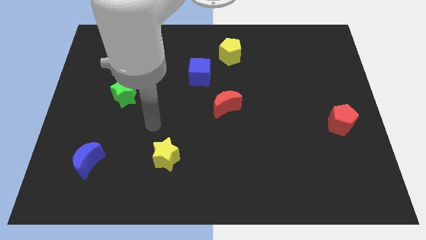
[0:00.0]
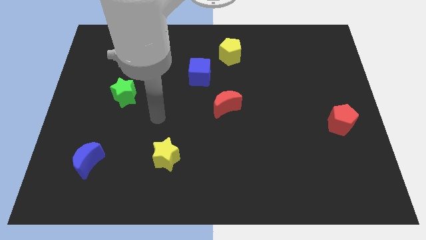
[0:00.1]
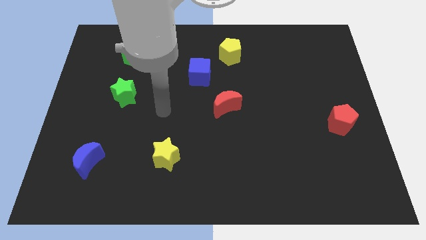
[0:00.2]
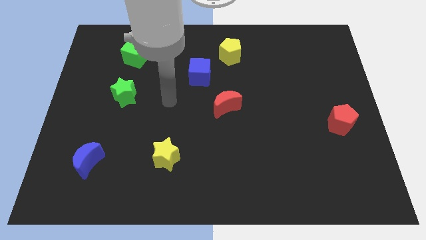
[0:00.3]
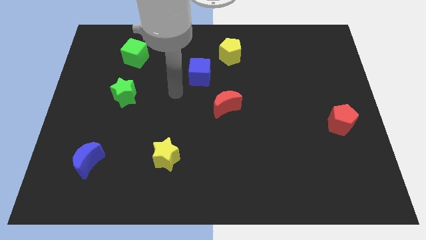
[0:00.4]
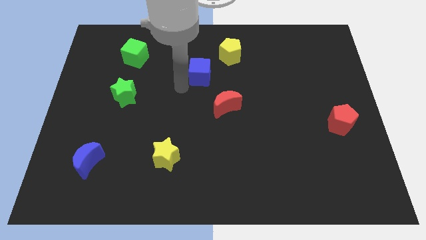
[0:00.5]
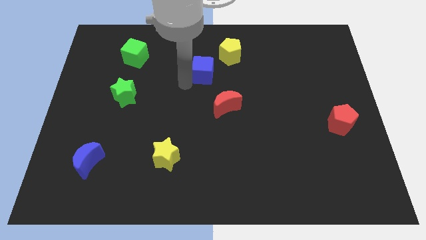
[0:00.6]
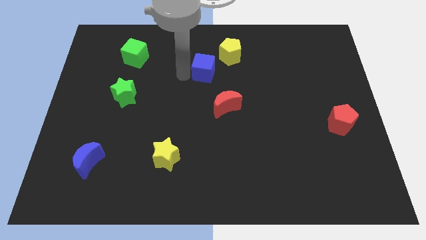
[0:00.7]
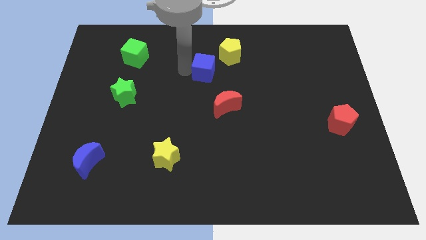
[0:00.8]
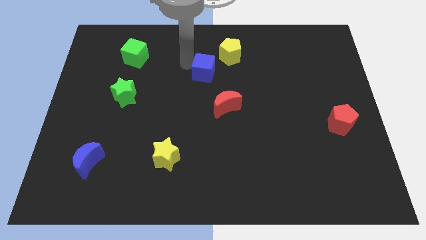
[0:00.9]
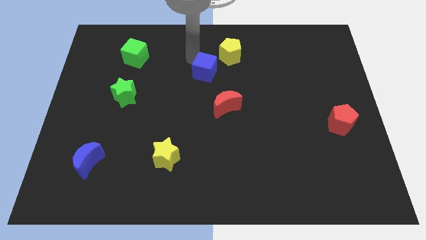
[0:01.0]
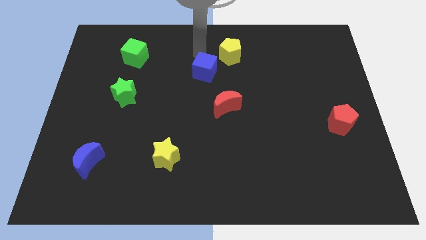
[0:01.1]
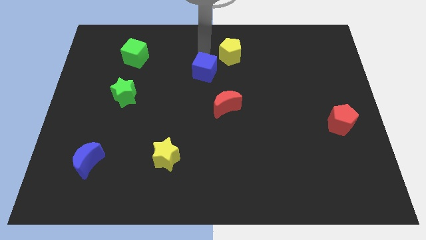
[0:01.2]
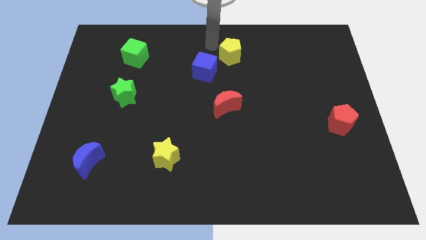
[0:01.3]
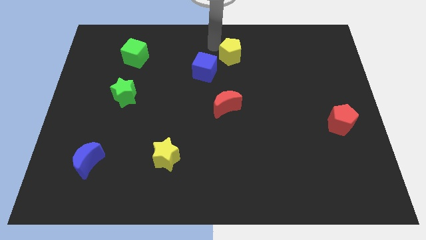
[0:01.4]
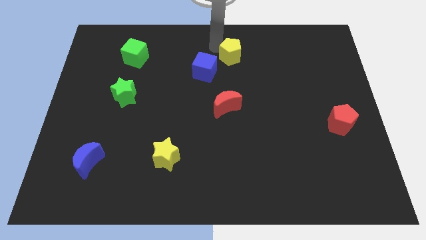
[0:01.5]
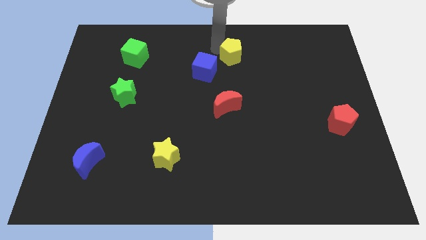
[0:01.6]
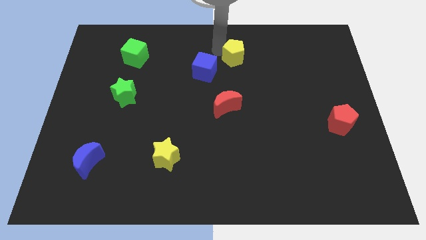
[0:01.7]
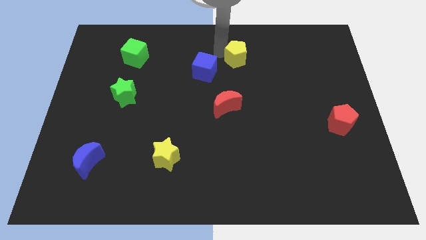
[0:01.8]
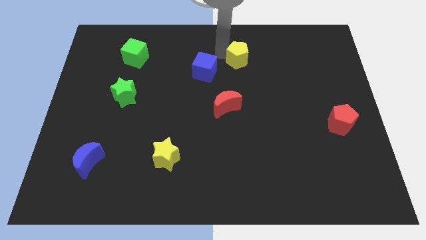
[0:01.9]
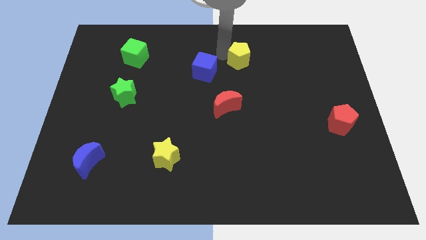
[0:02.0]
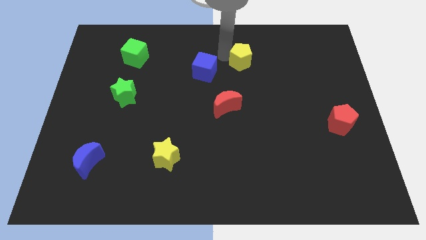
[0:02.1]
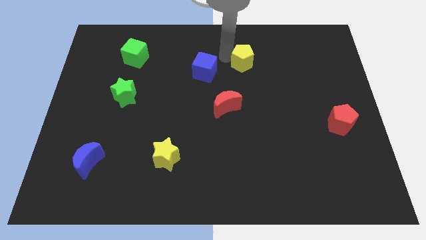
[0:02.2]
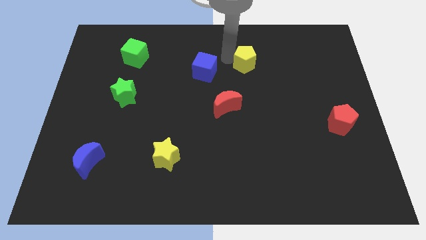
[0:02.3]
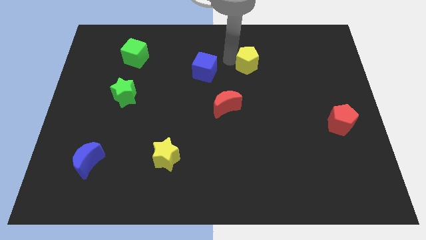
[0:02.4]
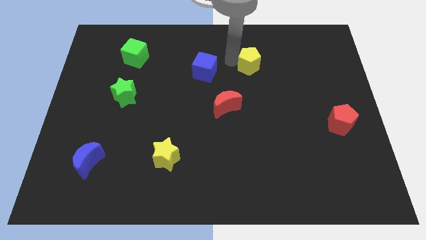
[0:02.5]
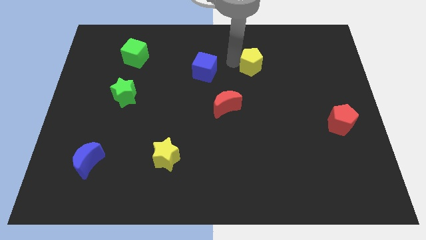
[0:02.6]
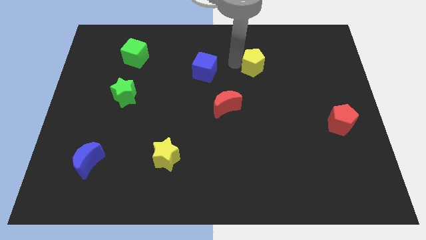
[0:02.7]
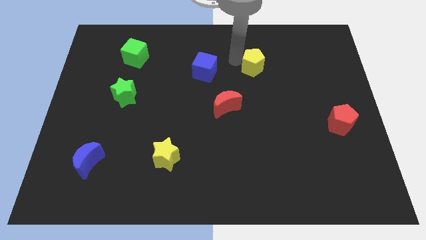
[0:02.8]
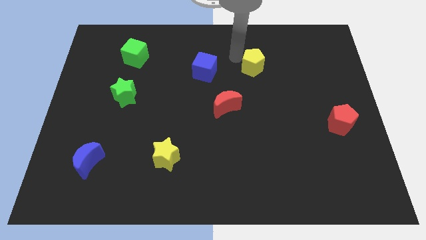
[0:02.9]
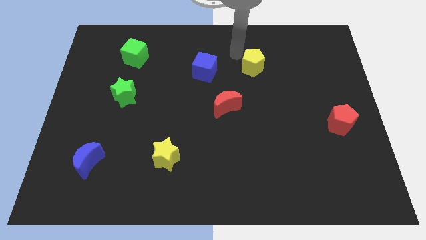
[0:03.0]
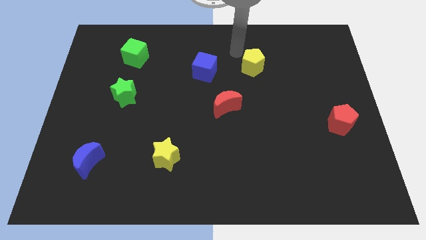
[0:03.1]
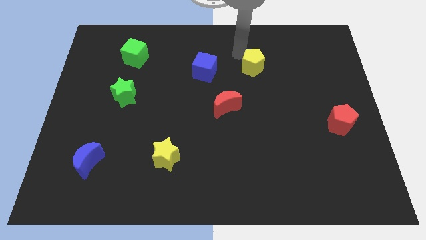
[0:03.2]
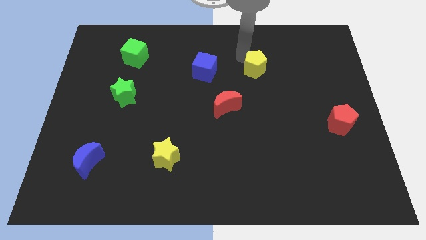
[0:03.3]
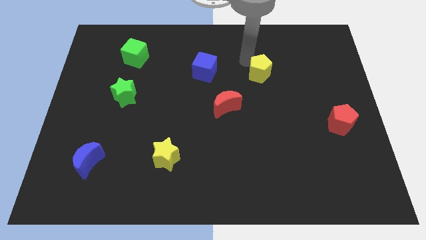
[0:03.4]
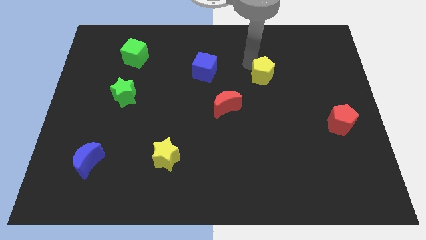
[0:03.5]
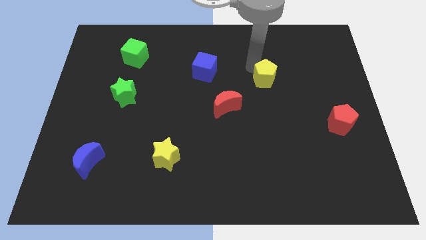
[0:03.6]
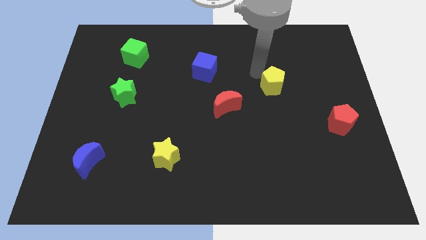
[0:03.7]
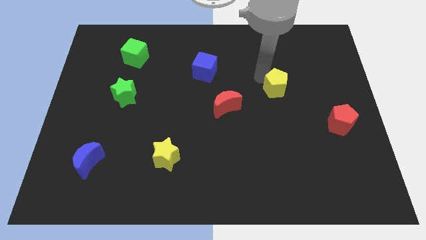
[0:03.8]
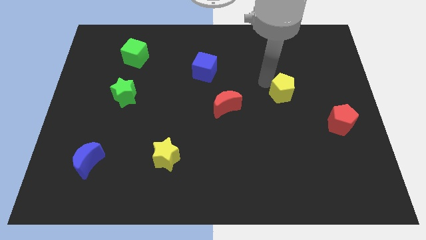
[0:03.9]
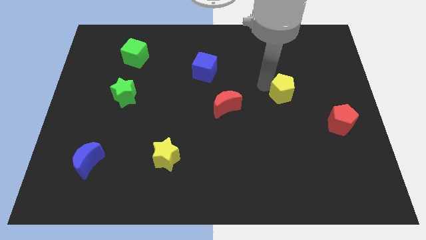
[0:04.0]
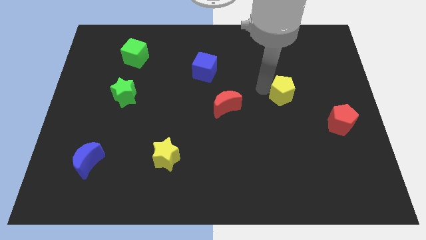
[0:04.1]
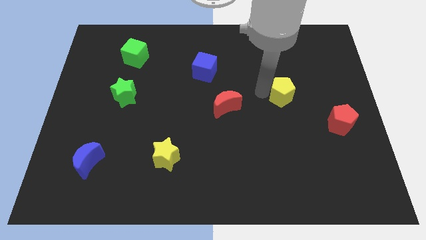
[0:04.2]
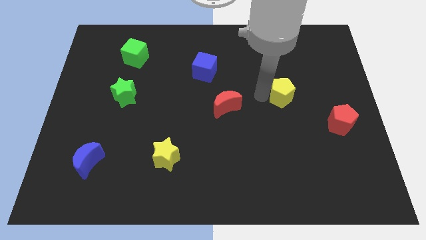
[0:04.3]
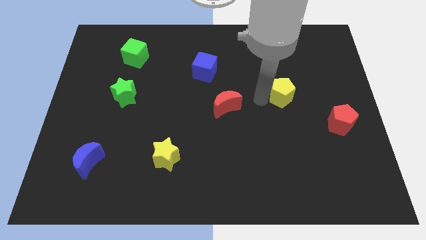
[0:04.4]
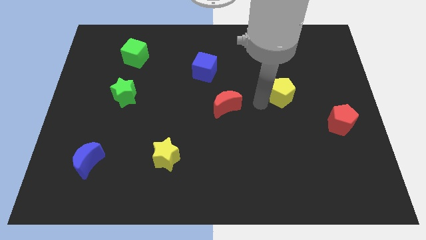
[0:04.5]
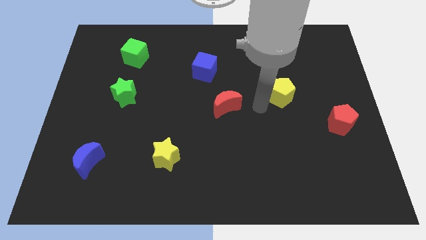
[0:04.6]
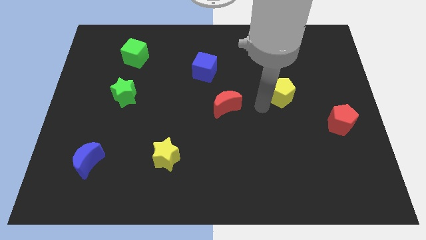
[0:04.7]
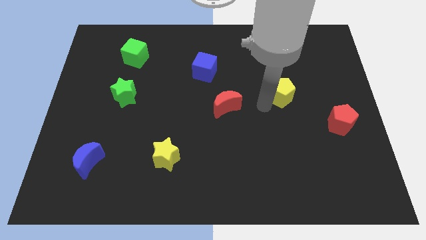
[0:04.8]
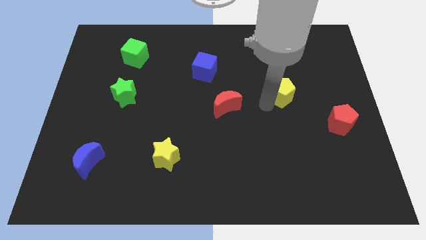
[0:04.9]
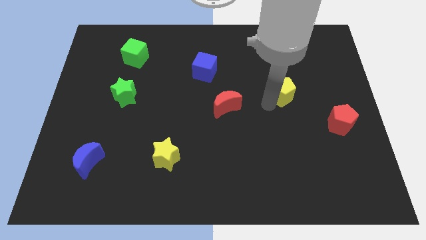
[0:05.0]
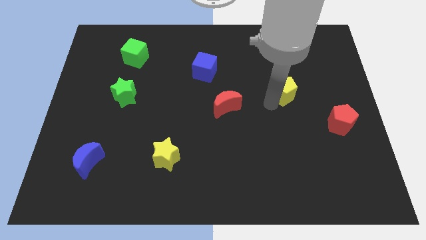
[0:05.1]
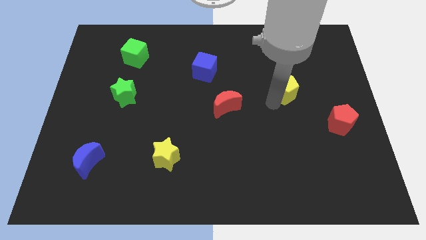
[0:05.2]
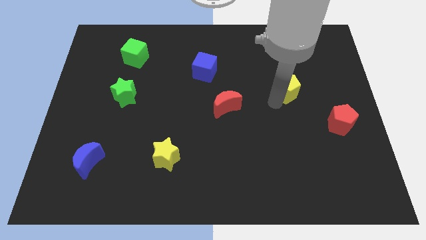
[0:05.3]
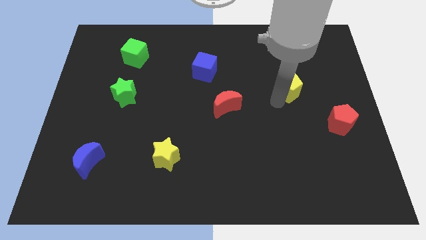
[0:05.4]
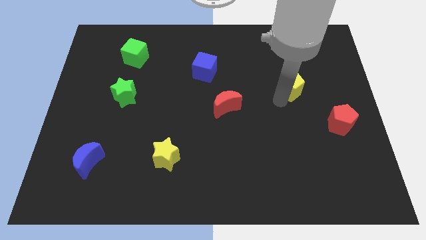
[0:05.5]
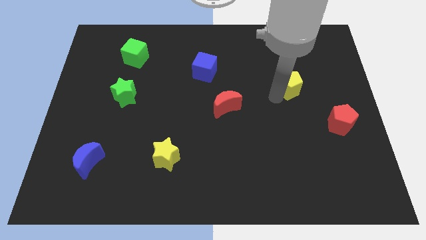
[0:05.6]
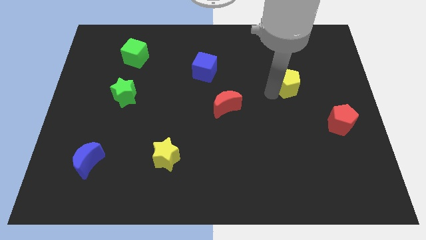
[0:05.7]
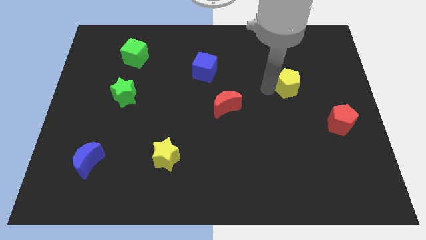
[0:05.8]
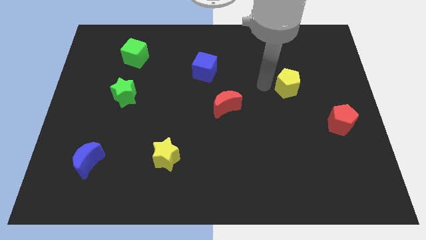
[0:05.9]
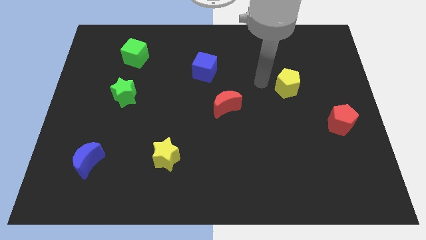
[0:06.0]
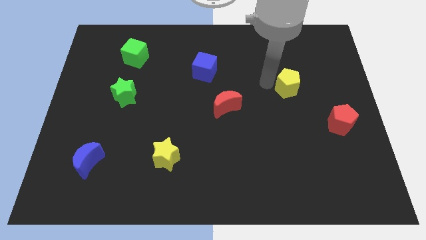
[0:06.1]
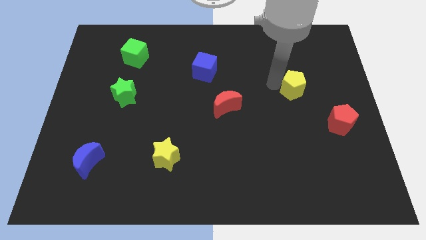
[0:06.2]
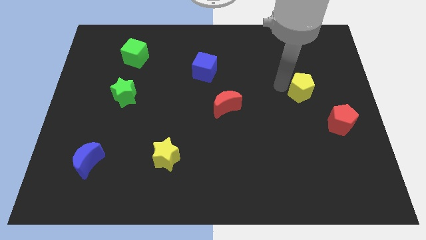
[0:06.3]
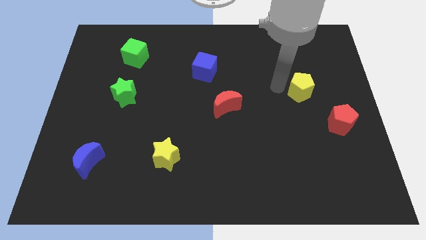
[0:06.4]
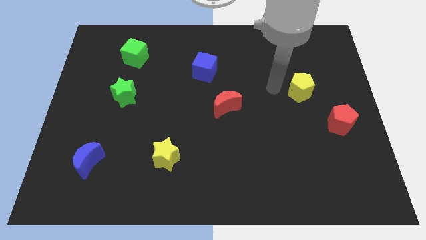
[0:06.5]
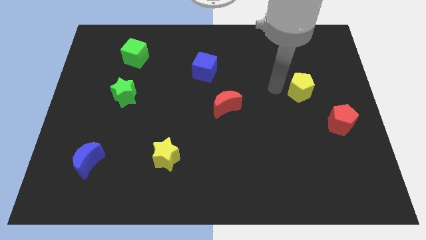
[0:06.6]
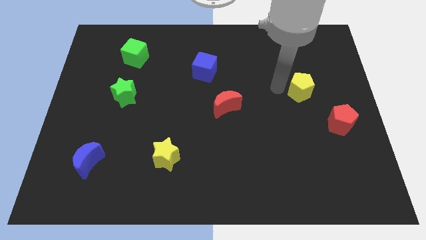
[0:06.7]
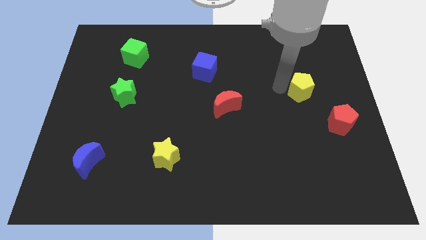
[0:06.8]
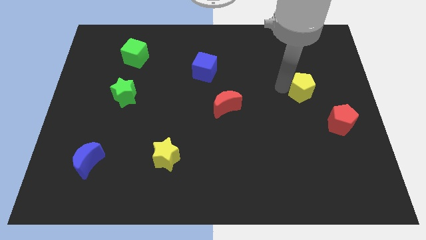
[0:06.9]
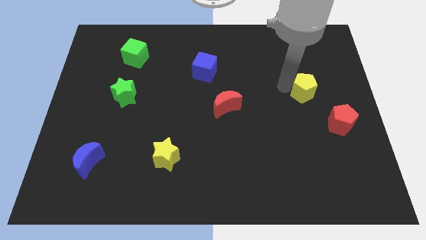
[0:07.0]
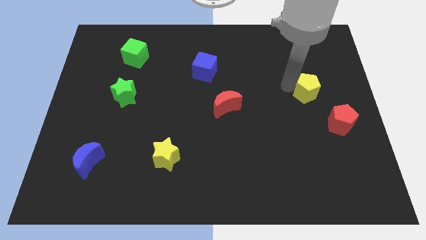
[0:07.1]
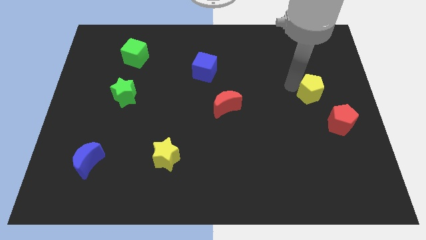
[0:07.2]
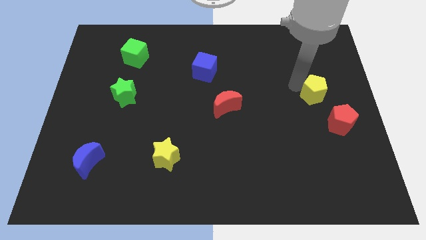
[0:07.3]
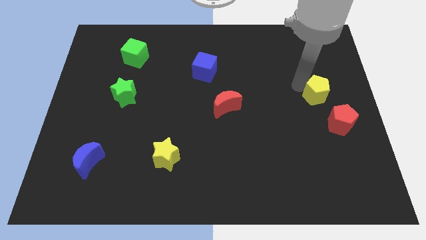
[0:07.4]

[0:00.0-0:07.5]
push the yellow pentagon to the right side
